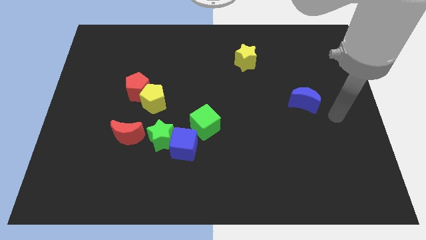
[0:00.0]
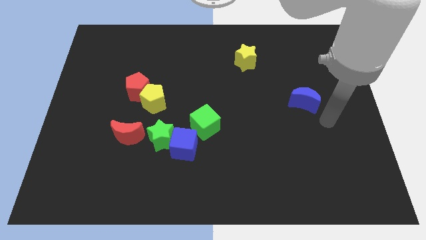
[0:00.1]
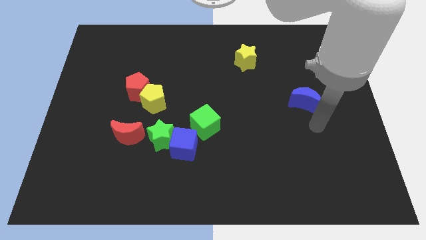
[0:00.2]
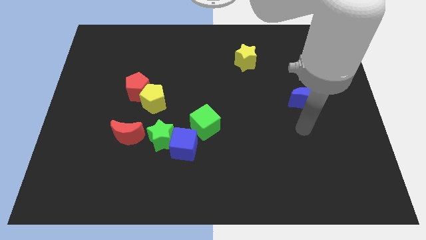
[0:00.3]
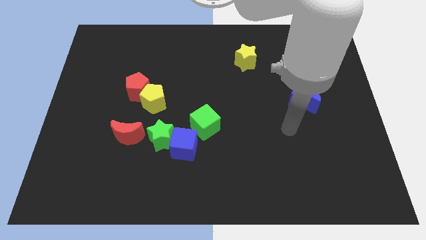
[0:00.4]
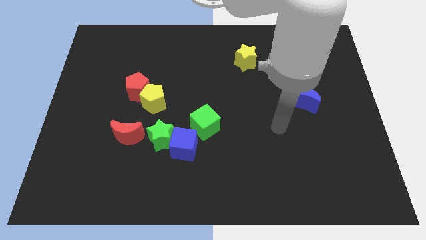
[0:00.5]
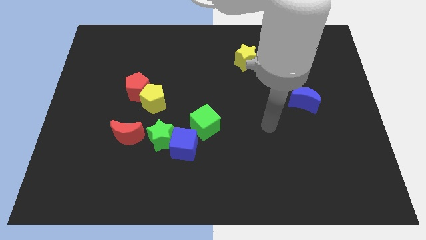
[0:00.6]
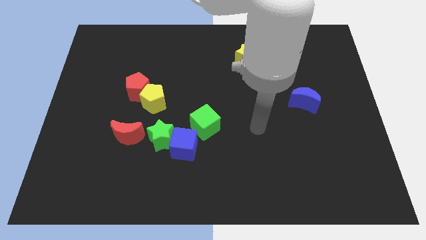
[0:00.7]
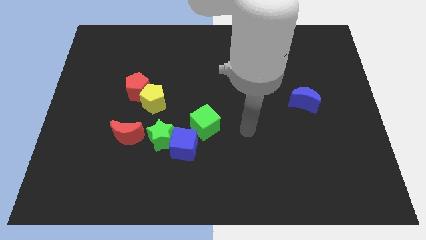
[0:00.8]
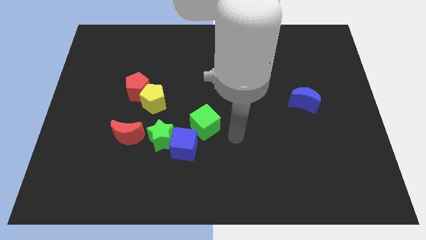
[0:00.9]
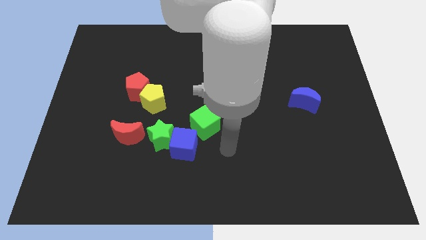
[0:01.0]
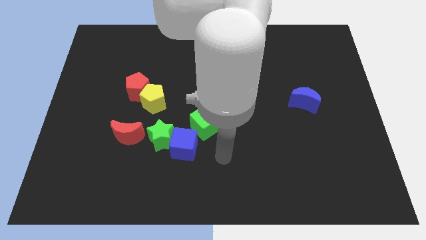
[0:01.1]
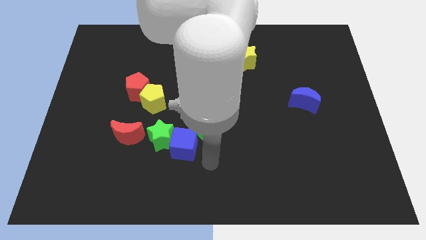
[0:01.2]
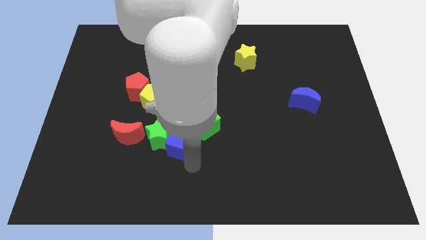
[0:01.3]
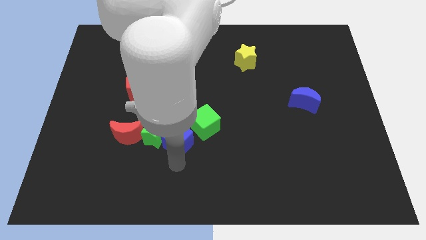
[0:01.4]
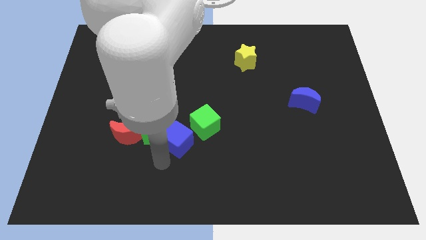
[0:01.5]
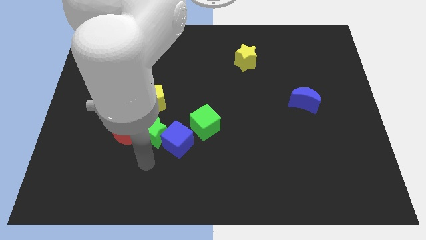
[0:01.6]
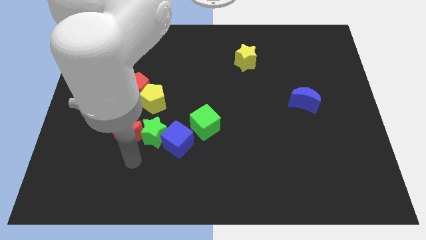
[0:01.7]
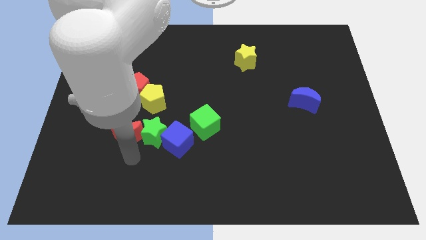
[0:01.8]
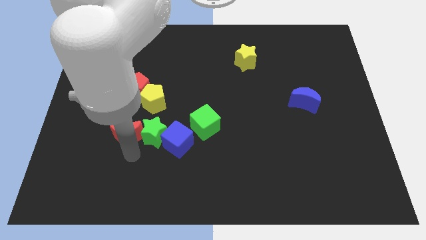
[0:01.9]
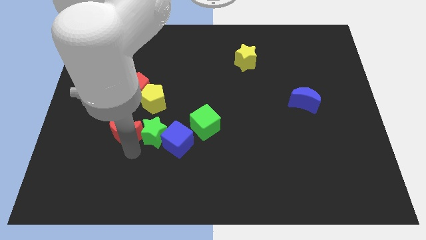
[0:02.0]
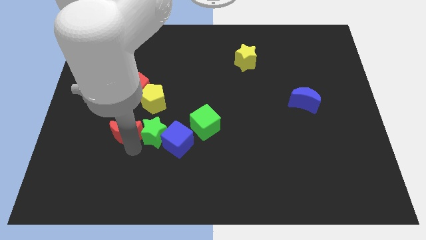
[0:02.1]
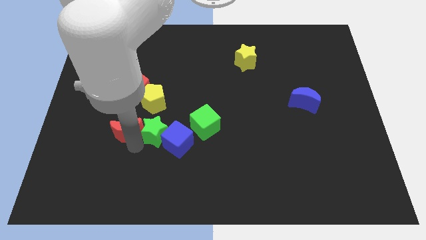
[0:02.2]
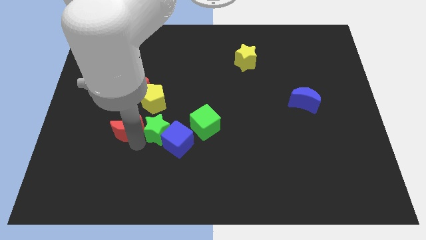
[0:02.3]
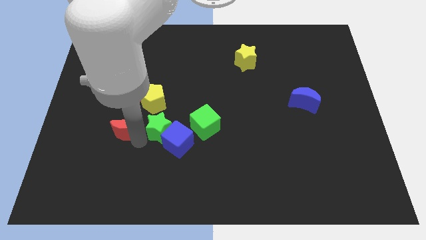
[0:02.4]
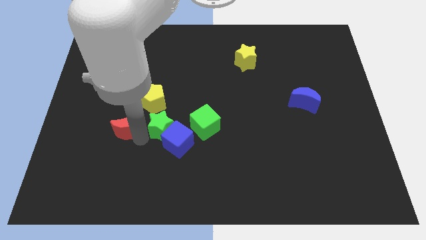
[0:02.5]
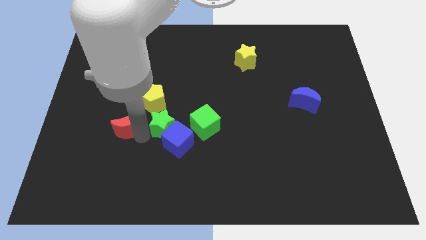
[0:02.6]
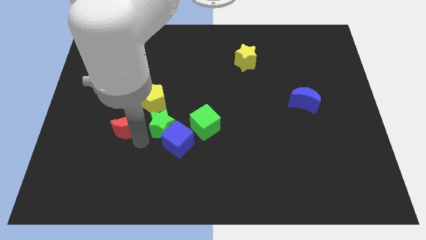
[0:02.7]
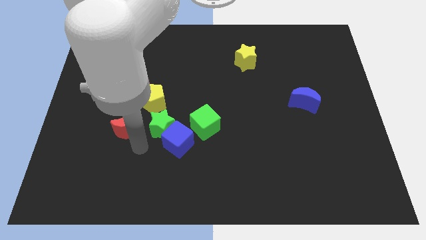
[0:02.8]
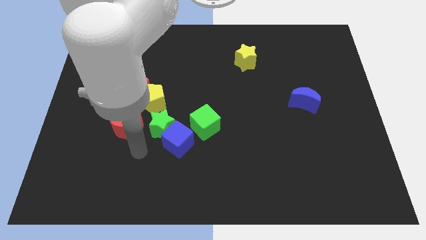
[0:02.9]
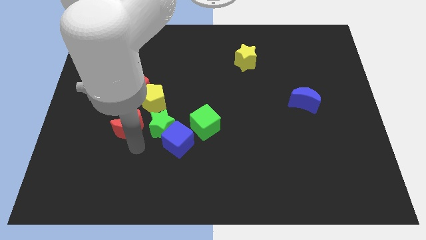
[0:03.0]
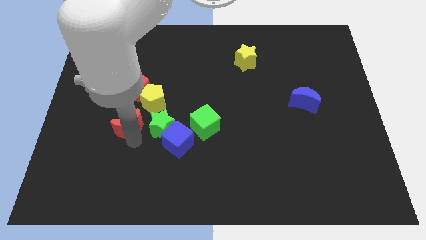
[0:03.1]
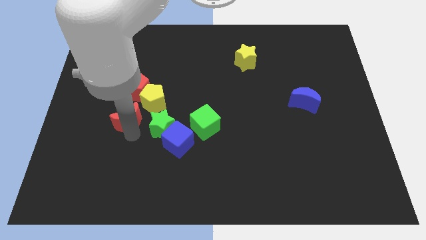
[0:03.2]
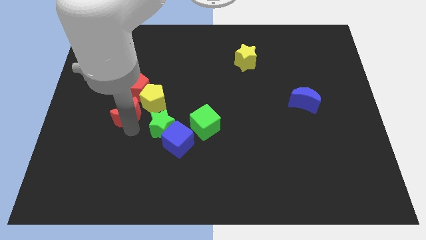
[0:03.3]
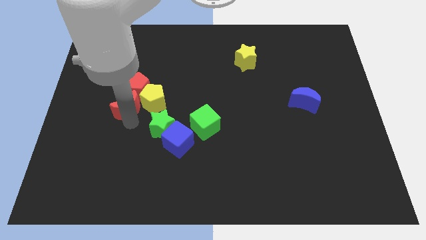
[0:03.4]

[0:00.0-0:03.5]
slightly slide the red moon up

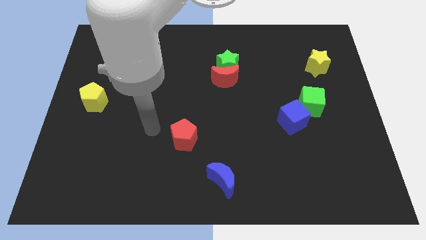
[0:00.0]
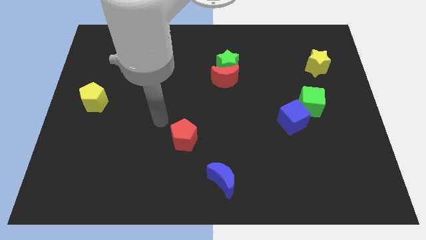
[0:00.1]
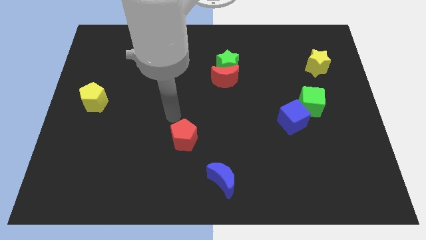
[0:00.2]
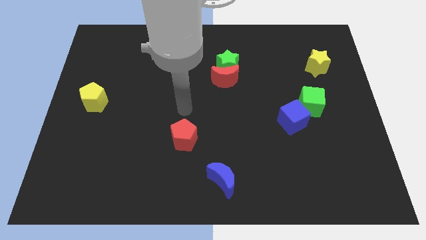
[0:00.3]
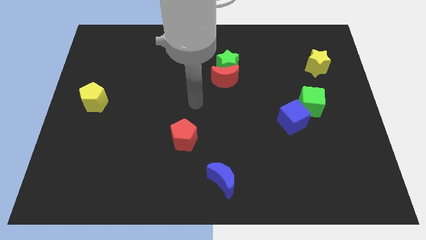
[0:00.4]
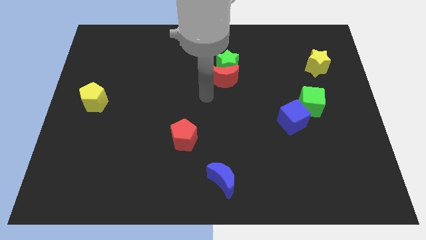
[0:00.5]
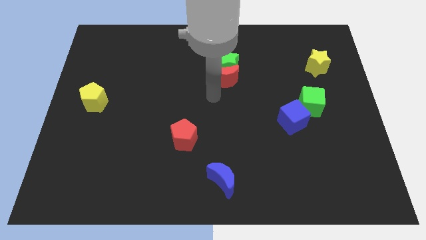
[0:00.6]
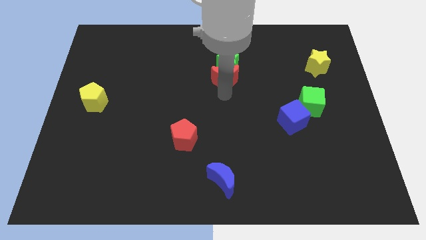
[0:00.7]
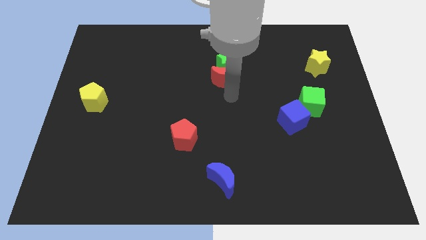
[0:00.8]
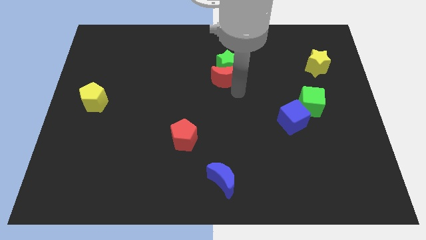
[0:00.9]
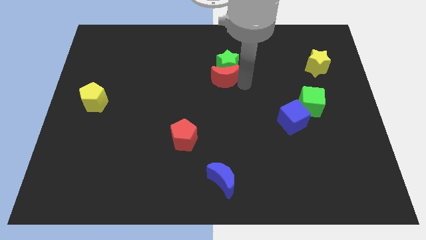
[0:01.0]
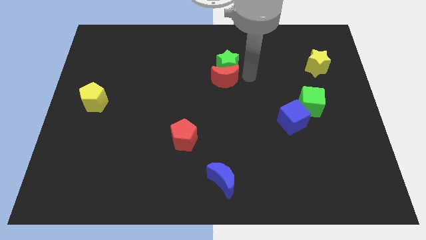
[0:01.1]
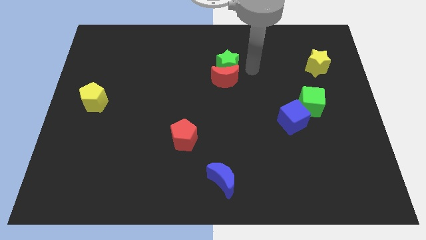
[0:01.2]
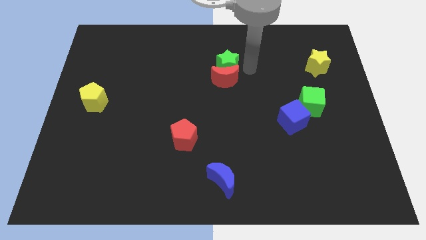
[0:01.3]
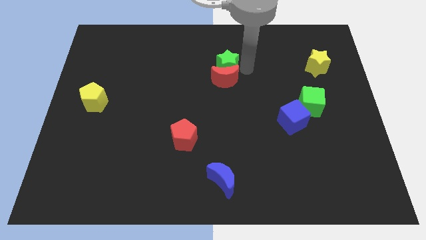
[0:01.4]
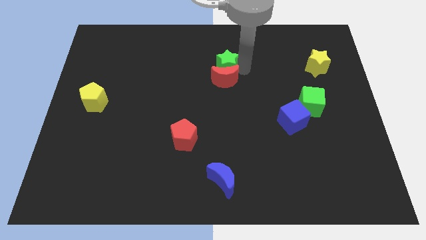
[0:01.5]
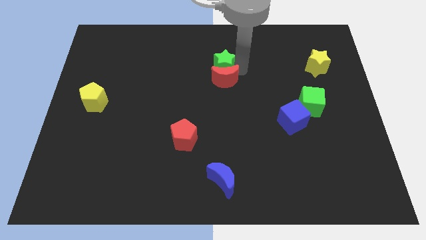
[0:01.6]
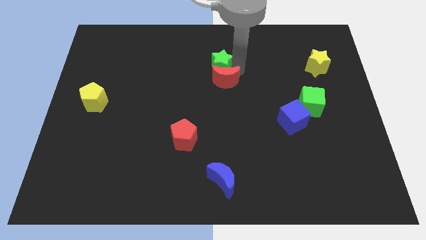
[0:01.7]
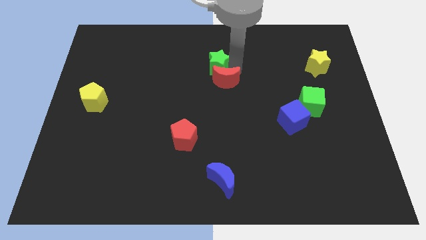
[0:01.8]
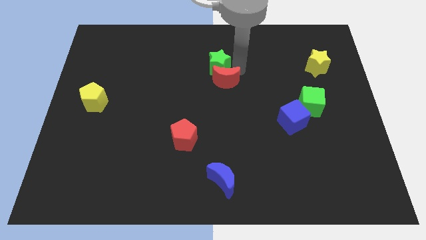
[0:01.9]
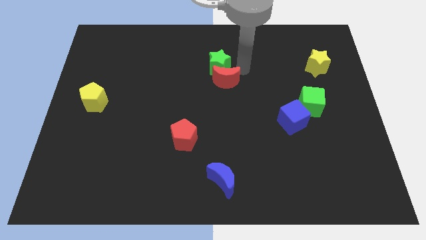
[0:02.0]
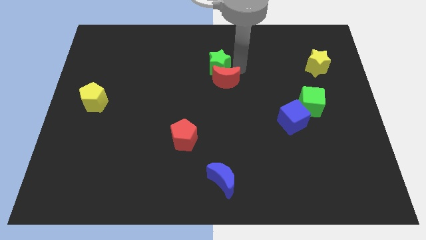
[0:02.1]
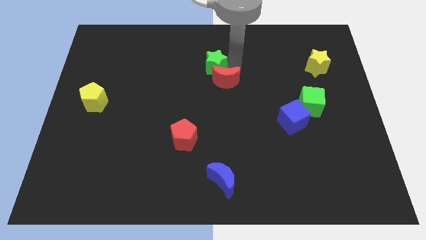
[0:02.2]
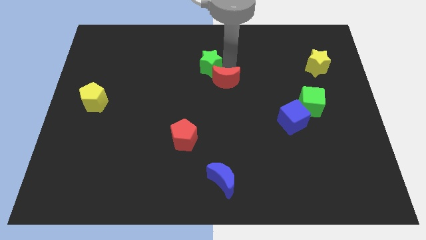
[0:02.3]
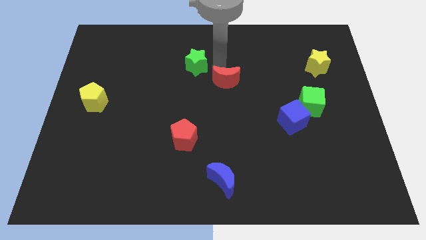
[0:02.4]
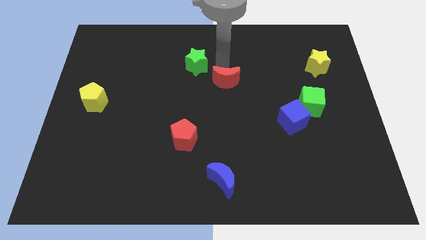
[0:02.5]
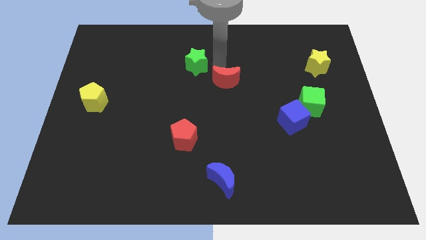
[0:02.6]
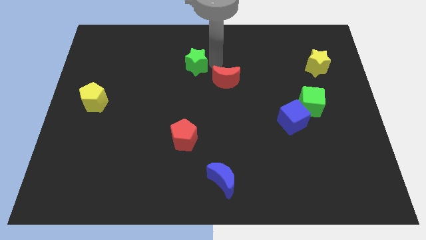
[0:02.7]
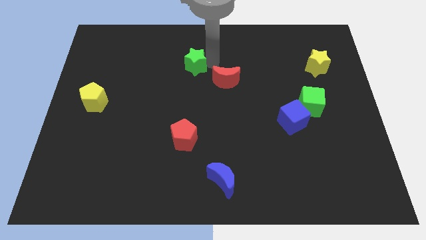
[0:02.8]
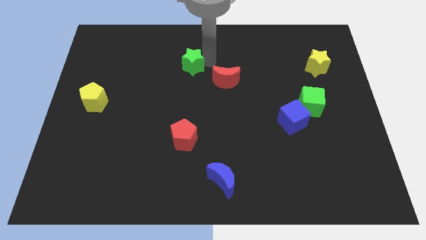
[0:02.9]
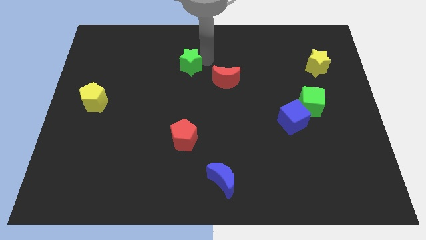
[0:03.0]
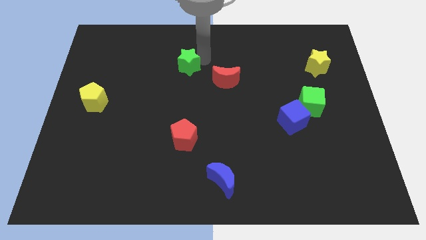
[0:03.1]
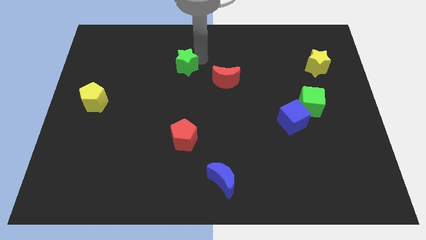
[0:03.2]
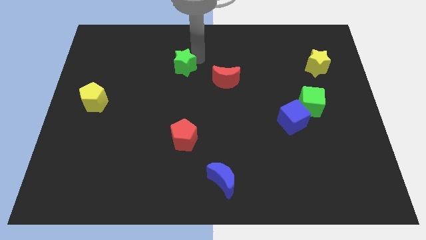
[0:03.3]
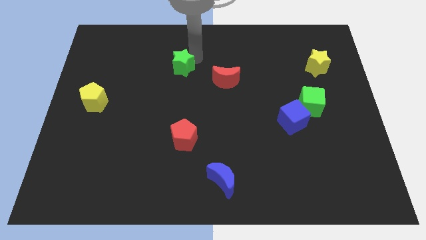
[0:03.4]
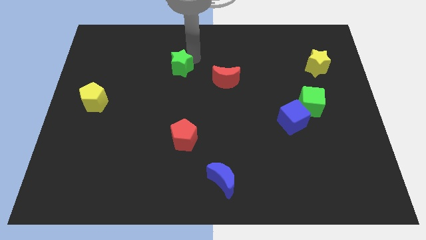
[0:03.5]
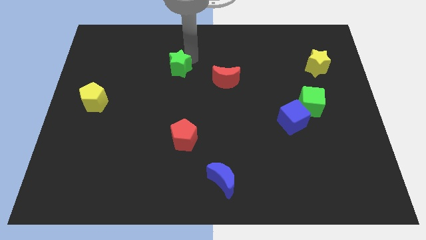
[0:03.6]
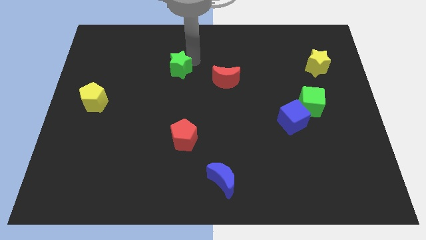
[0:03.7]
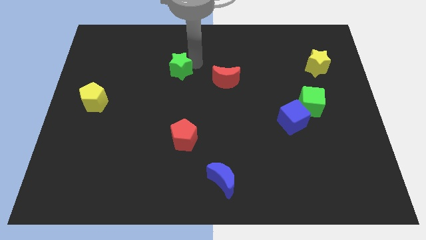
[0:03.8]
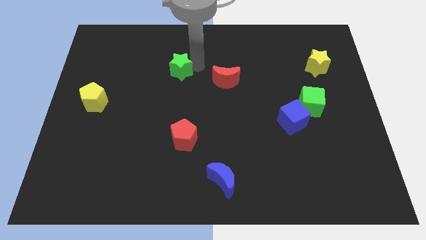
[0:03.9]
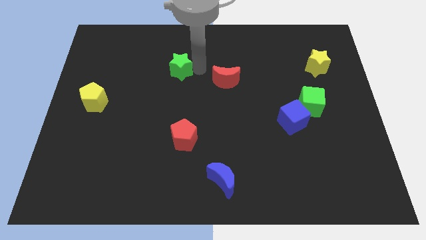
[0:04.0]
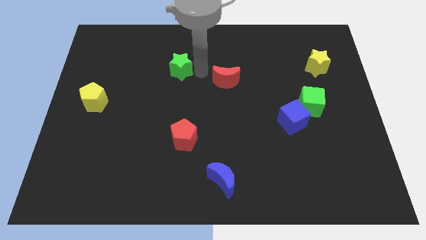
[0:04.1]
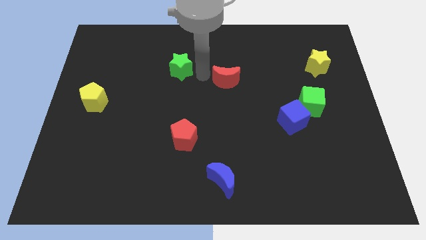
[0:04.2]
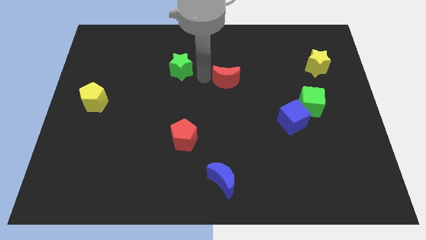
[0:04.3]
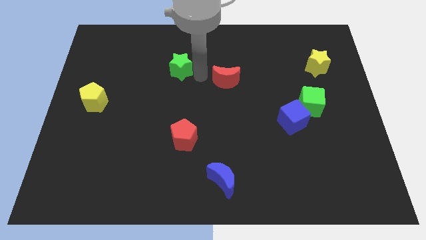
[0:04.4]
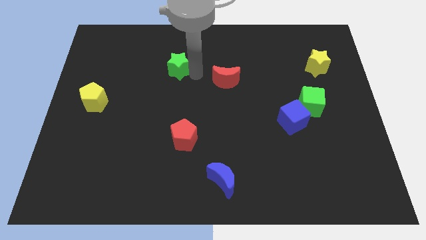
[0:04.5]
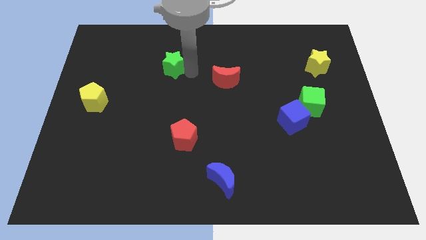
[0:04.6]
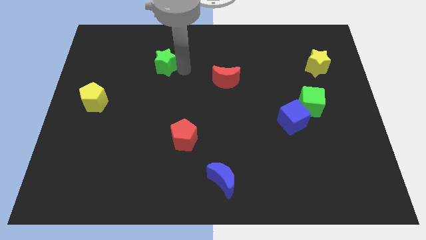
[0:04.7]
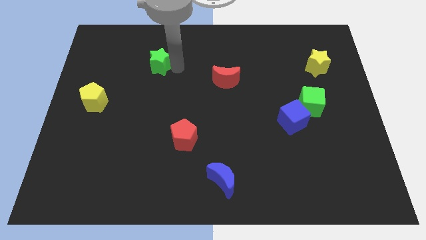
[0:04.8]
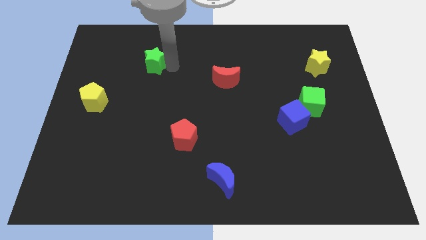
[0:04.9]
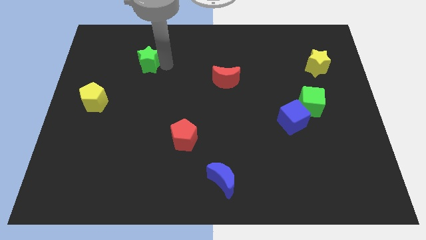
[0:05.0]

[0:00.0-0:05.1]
push the green star left
